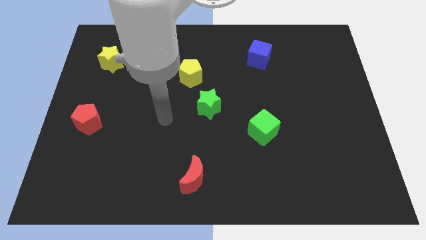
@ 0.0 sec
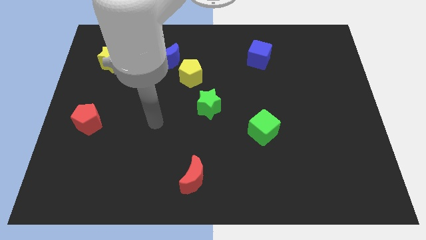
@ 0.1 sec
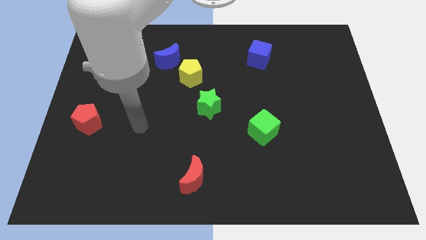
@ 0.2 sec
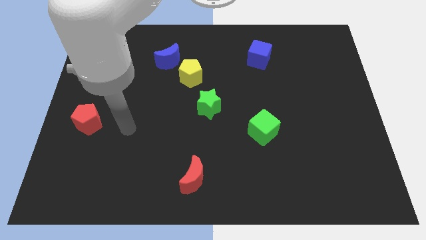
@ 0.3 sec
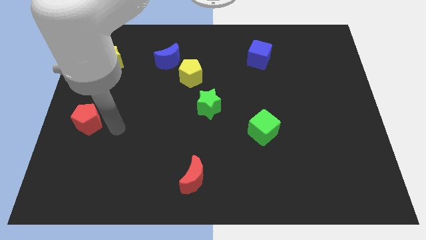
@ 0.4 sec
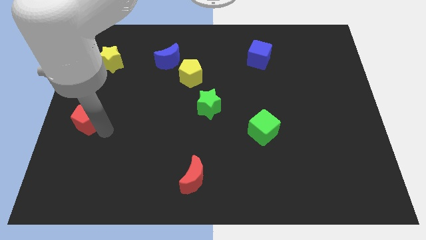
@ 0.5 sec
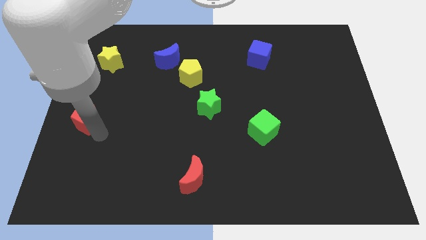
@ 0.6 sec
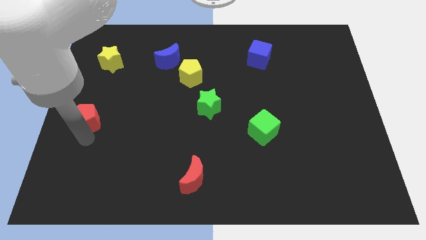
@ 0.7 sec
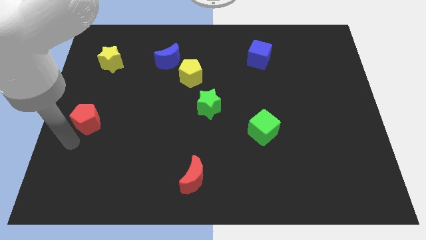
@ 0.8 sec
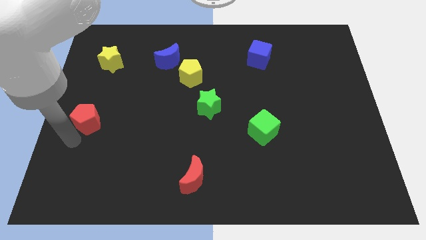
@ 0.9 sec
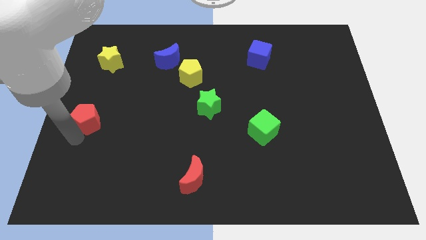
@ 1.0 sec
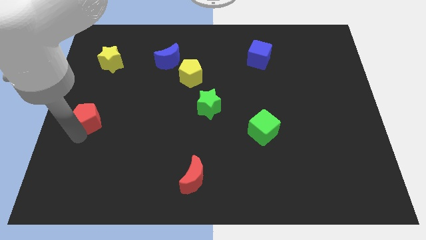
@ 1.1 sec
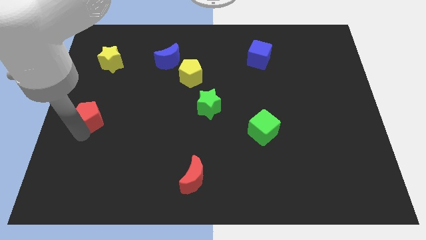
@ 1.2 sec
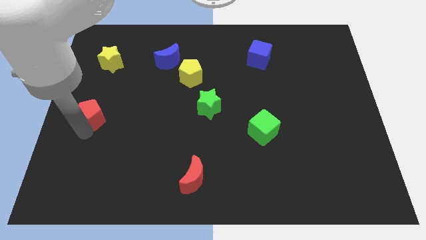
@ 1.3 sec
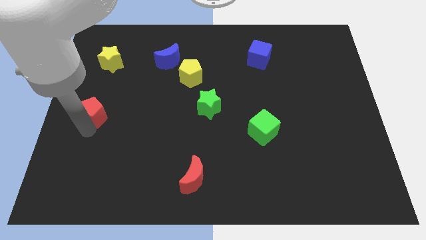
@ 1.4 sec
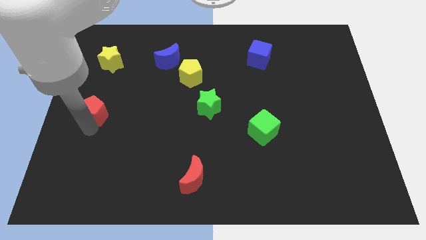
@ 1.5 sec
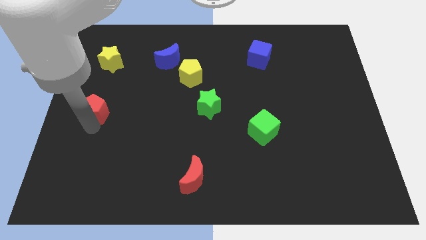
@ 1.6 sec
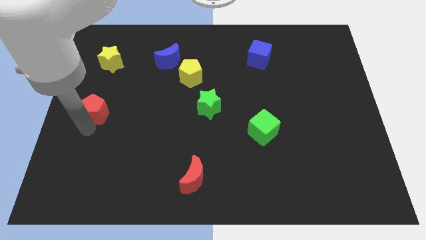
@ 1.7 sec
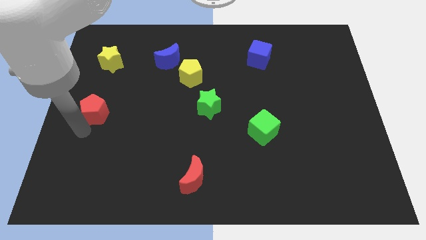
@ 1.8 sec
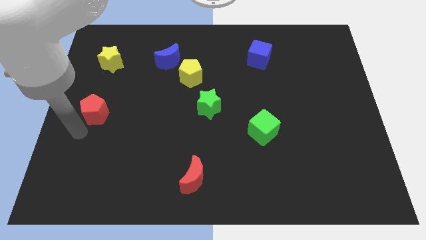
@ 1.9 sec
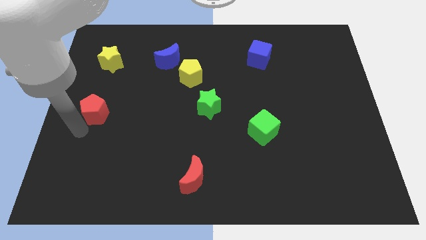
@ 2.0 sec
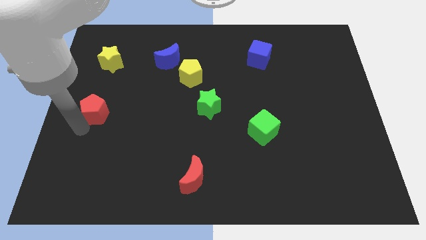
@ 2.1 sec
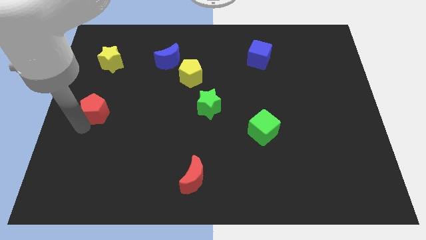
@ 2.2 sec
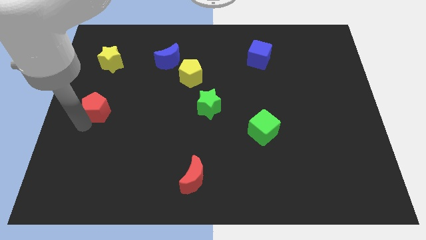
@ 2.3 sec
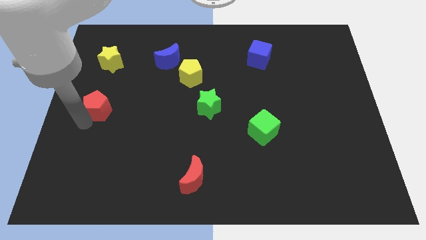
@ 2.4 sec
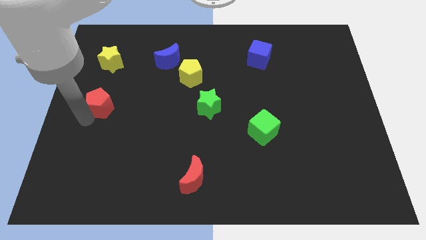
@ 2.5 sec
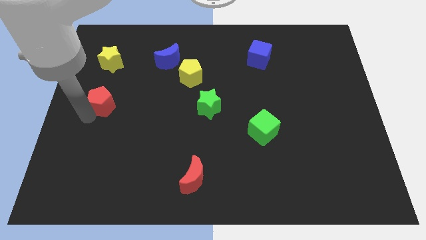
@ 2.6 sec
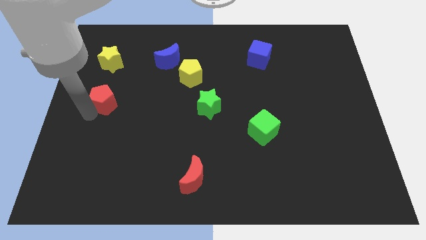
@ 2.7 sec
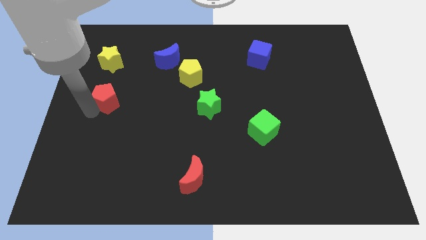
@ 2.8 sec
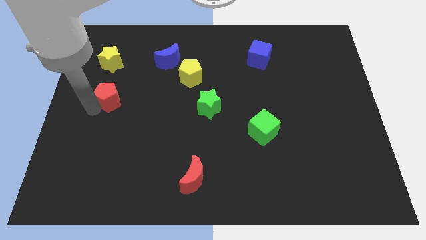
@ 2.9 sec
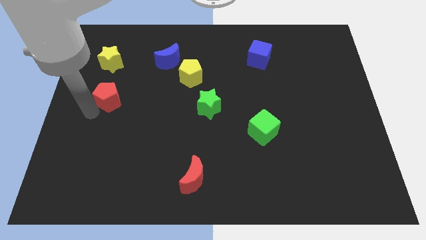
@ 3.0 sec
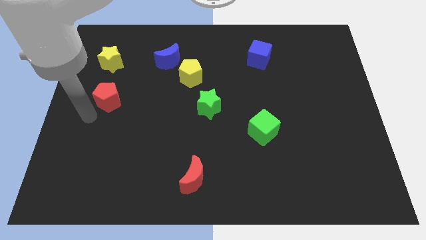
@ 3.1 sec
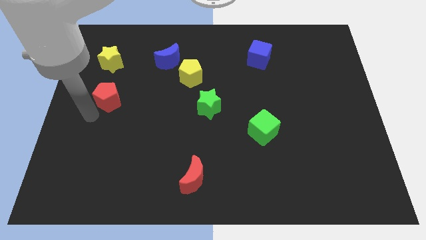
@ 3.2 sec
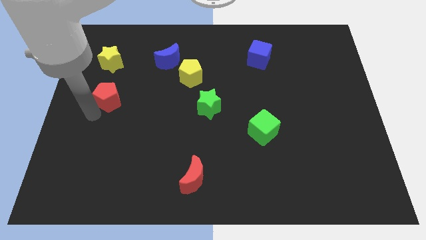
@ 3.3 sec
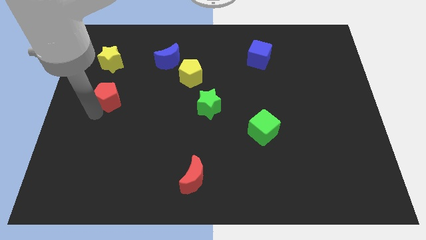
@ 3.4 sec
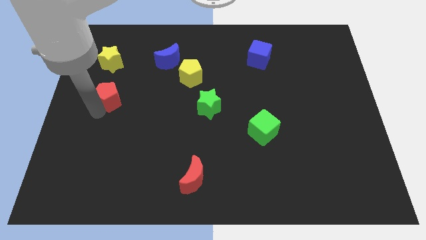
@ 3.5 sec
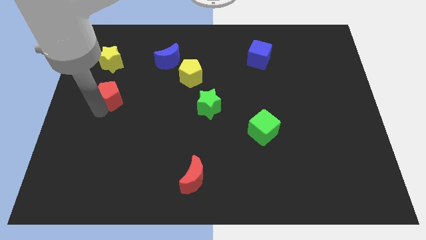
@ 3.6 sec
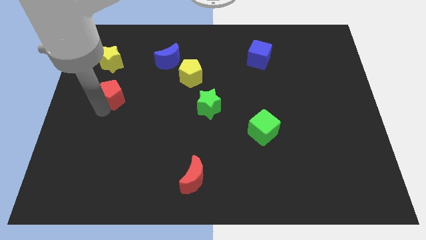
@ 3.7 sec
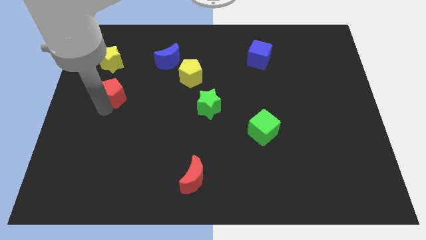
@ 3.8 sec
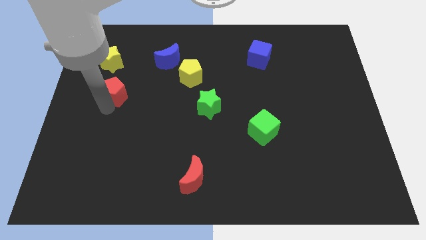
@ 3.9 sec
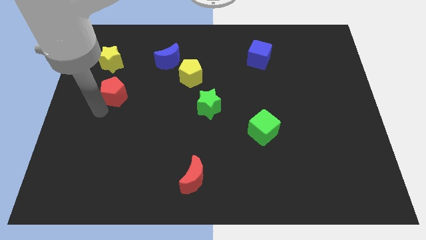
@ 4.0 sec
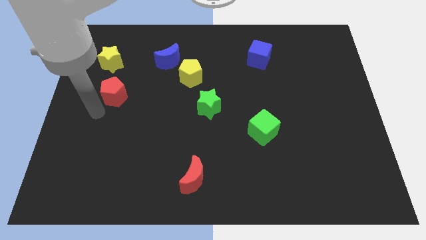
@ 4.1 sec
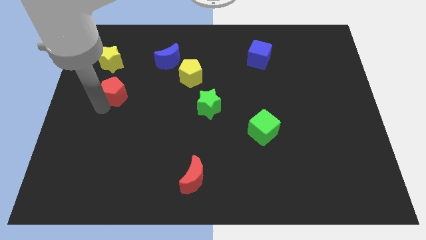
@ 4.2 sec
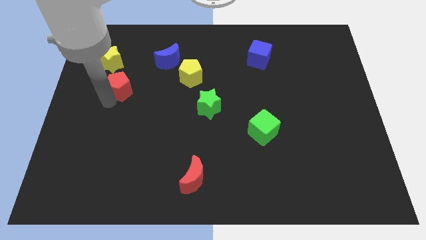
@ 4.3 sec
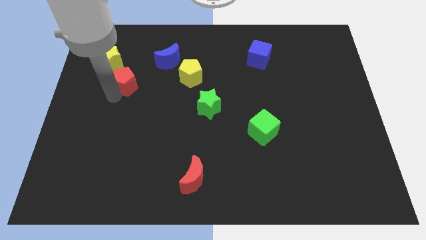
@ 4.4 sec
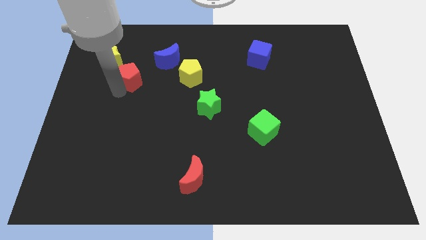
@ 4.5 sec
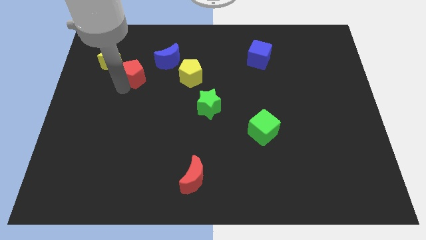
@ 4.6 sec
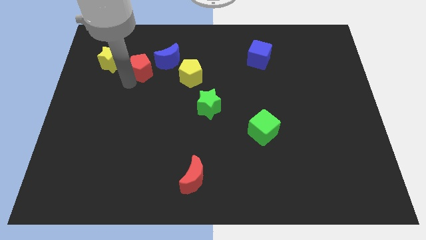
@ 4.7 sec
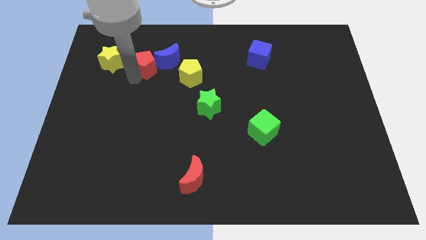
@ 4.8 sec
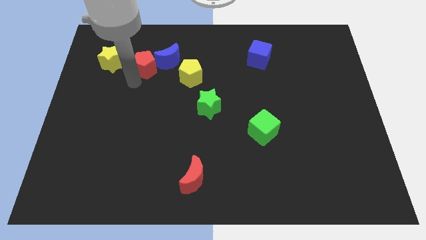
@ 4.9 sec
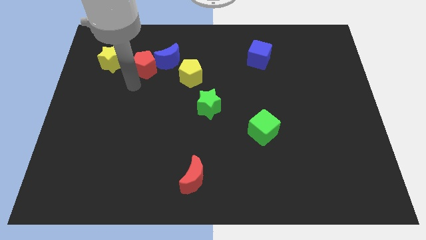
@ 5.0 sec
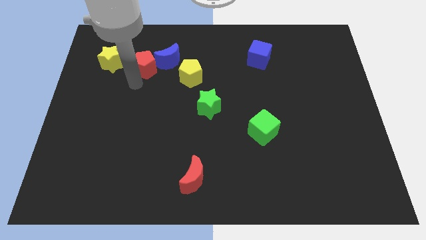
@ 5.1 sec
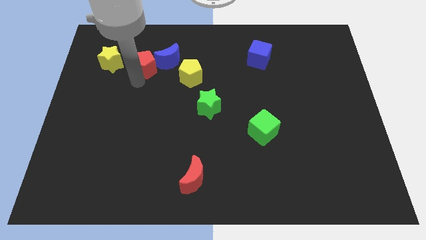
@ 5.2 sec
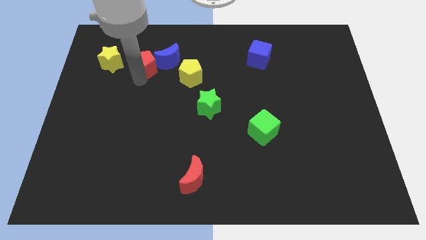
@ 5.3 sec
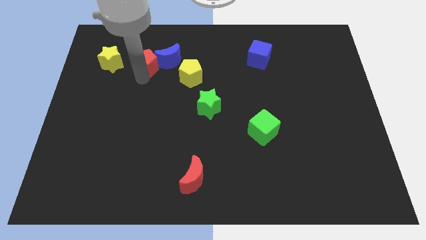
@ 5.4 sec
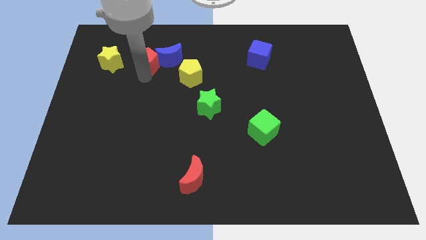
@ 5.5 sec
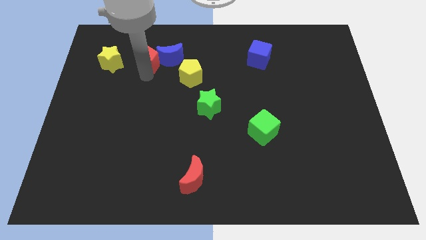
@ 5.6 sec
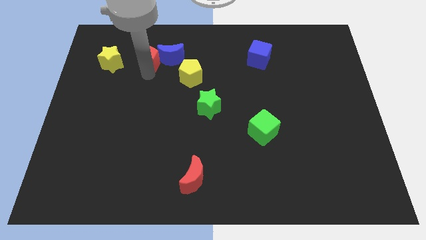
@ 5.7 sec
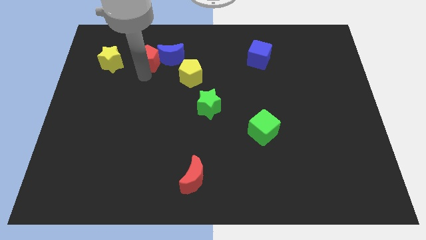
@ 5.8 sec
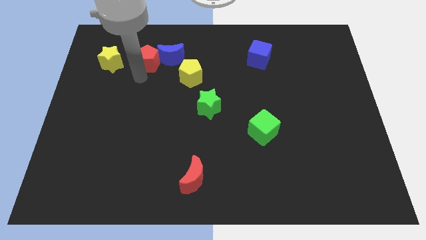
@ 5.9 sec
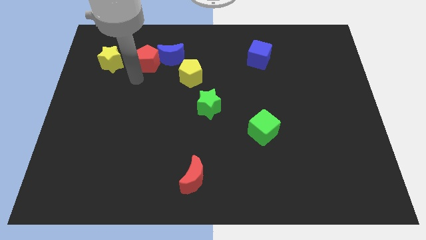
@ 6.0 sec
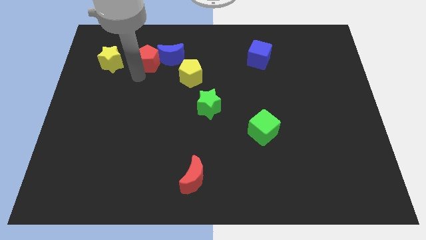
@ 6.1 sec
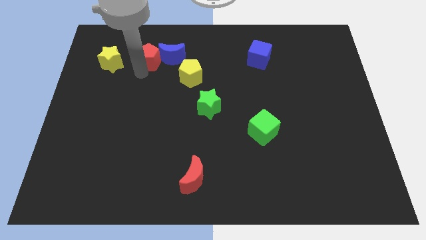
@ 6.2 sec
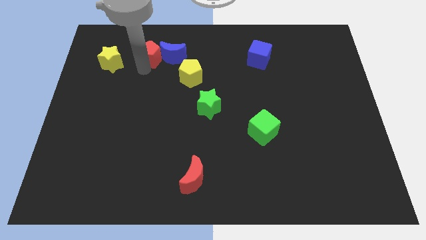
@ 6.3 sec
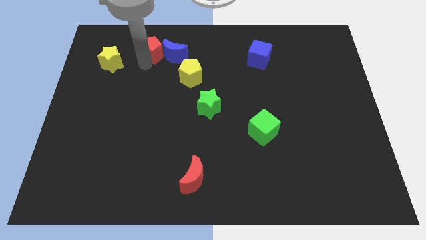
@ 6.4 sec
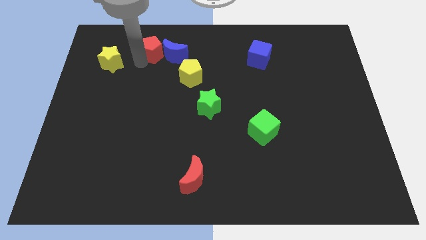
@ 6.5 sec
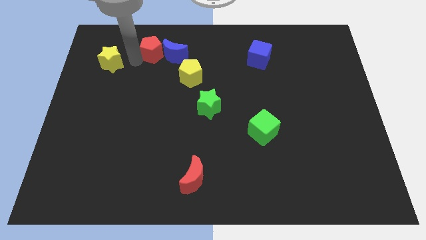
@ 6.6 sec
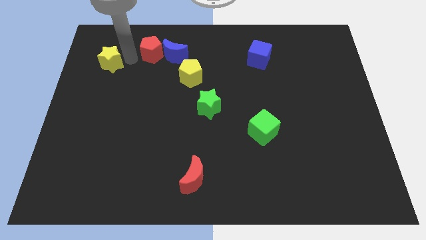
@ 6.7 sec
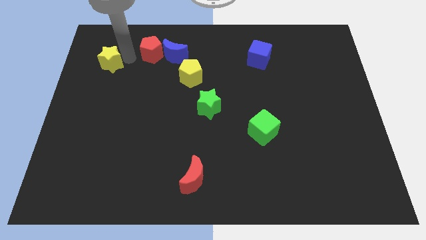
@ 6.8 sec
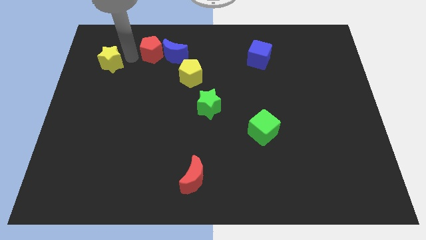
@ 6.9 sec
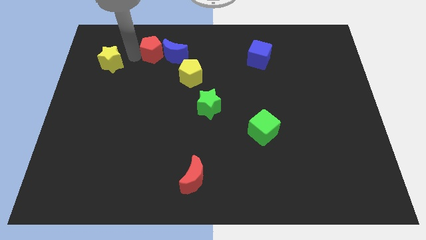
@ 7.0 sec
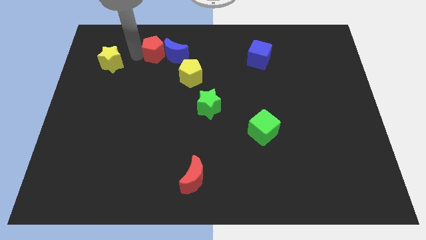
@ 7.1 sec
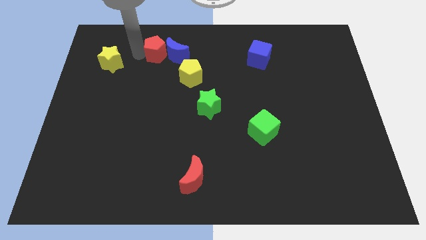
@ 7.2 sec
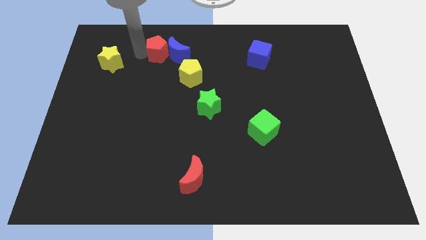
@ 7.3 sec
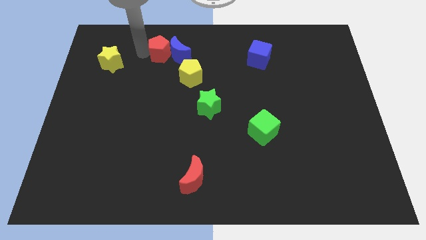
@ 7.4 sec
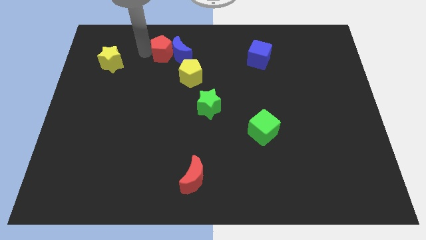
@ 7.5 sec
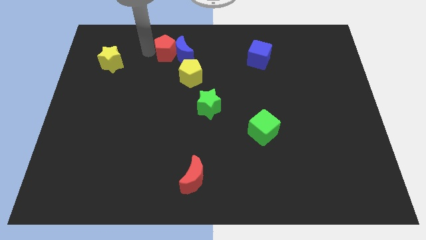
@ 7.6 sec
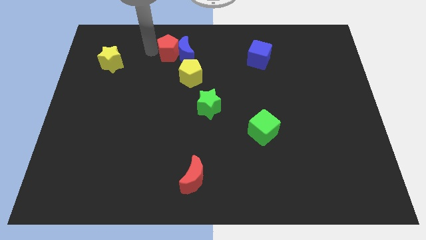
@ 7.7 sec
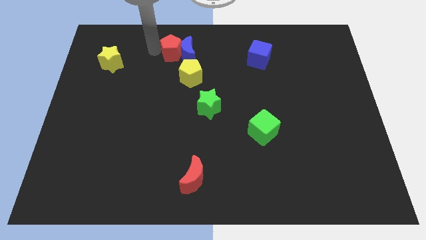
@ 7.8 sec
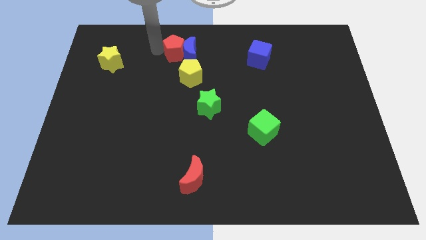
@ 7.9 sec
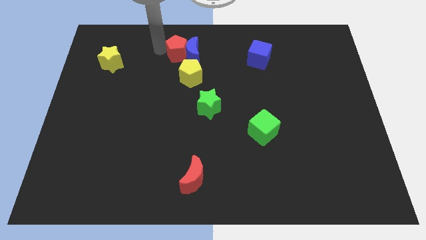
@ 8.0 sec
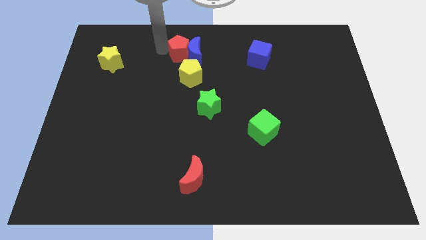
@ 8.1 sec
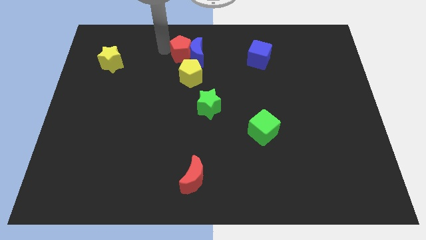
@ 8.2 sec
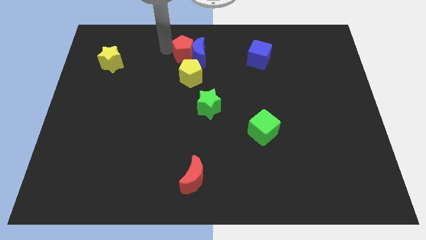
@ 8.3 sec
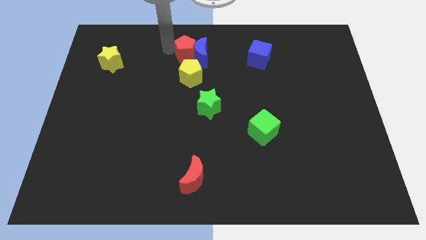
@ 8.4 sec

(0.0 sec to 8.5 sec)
push the red pentagon to the towards your base
